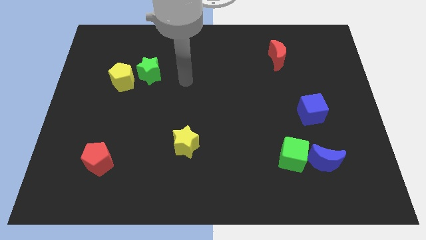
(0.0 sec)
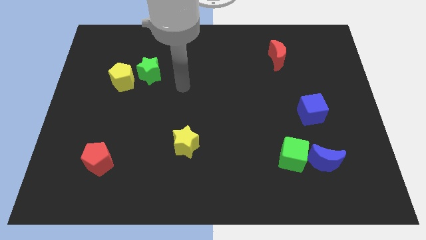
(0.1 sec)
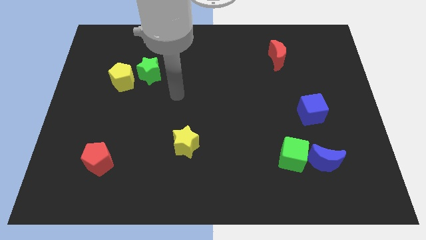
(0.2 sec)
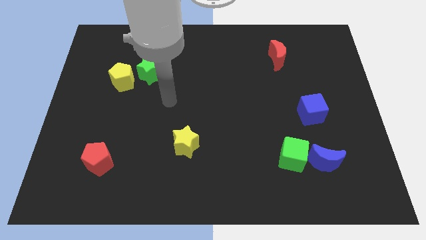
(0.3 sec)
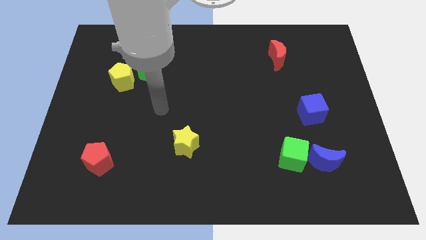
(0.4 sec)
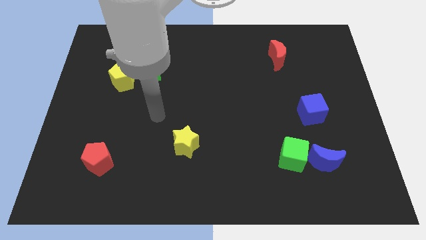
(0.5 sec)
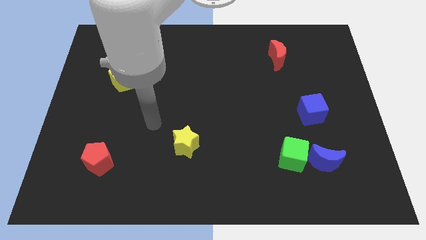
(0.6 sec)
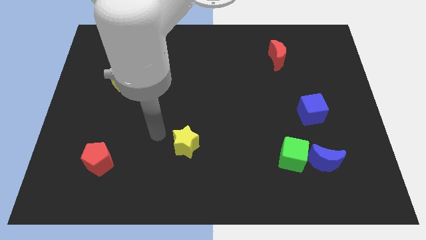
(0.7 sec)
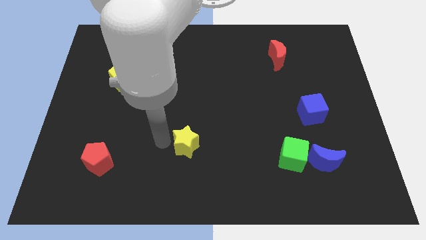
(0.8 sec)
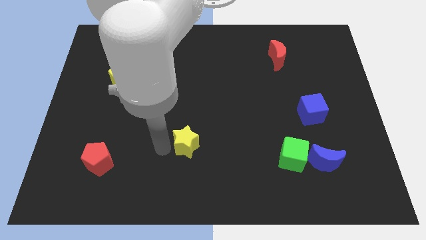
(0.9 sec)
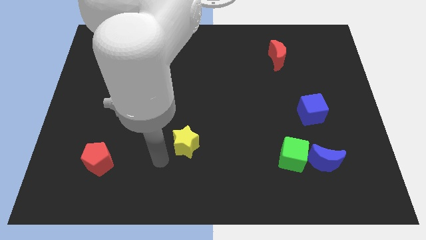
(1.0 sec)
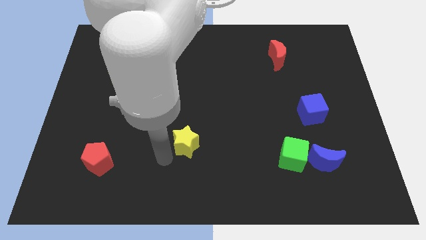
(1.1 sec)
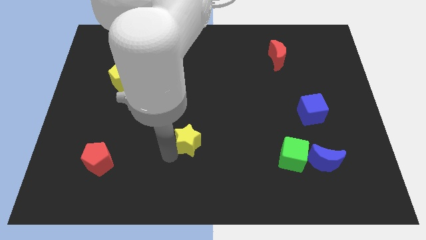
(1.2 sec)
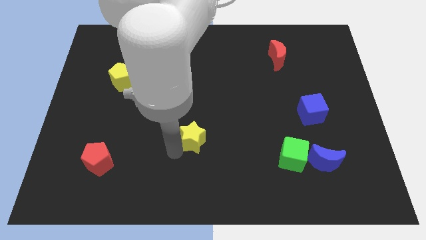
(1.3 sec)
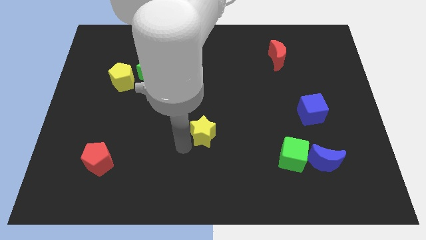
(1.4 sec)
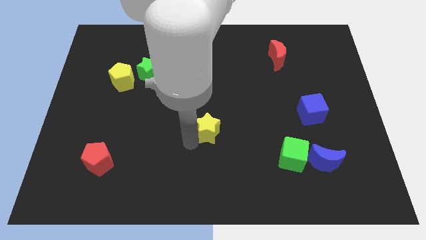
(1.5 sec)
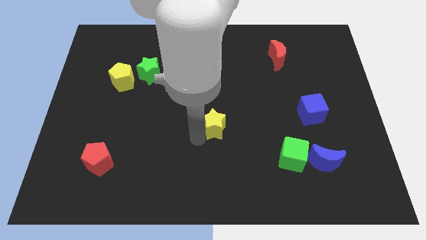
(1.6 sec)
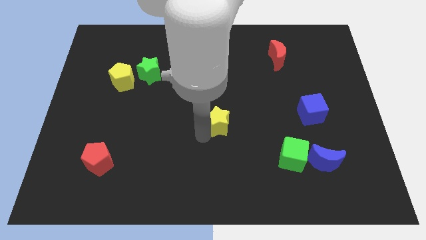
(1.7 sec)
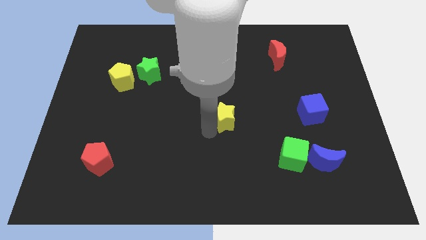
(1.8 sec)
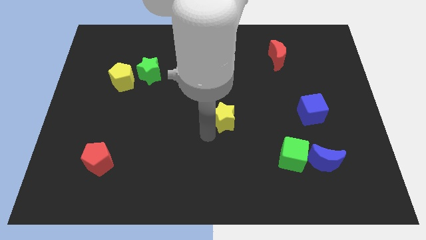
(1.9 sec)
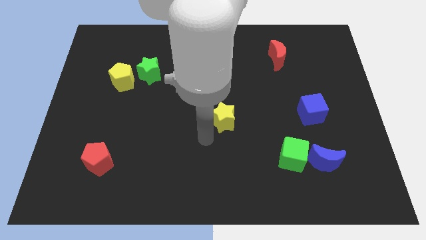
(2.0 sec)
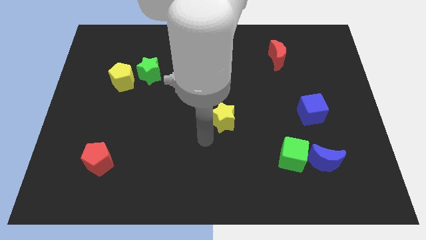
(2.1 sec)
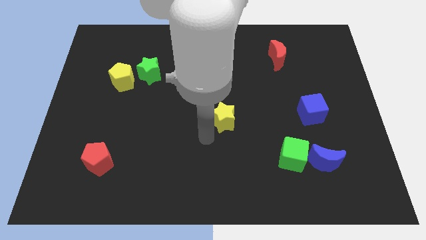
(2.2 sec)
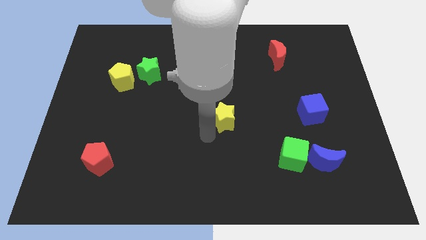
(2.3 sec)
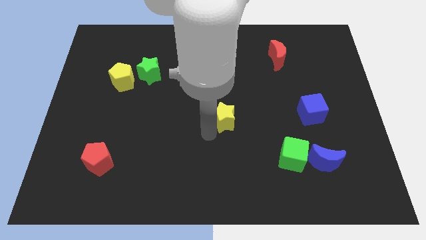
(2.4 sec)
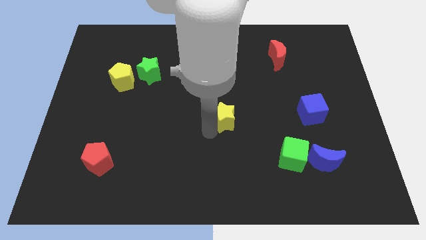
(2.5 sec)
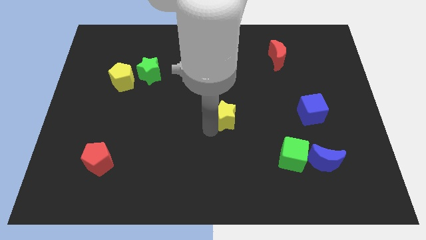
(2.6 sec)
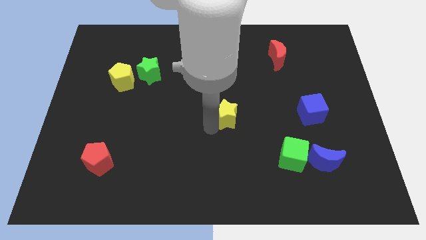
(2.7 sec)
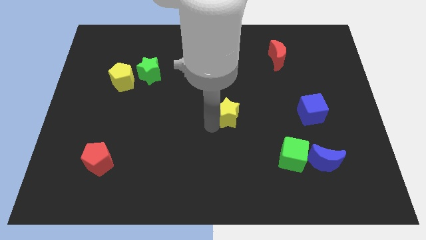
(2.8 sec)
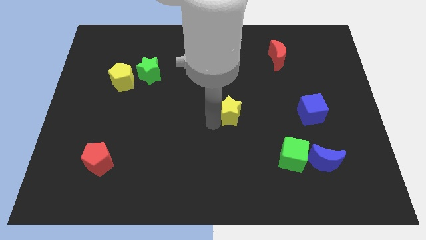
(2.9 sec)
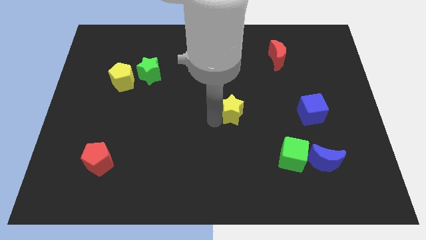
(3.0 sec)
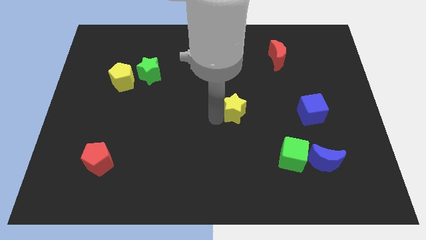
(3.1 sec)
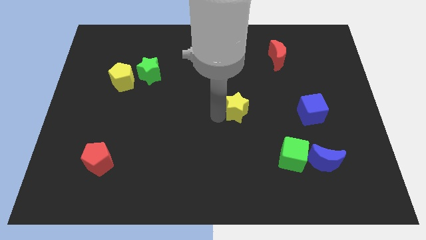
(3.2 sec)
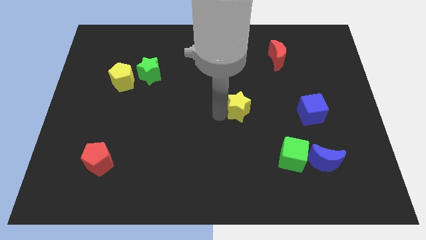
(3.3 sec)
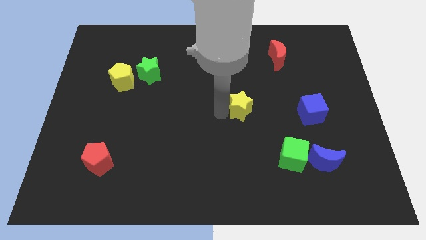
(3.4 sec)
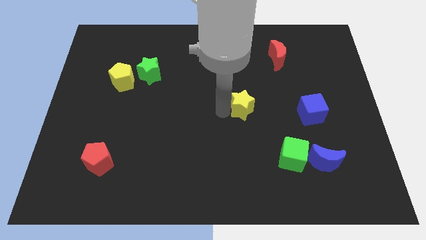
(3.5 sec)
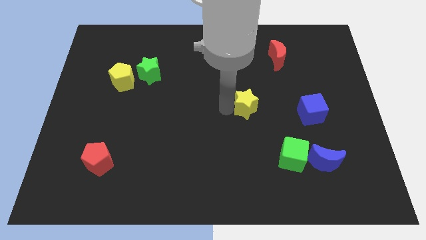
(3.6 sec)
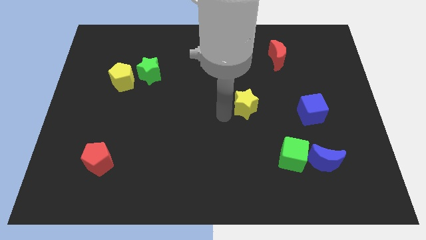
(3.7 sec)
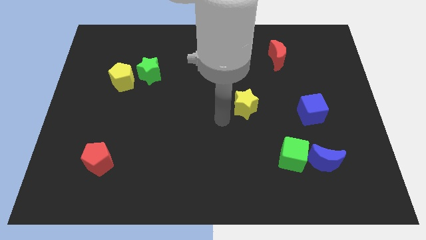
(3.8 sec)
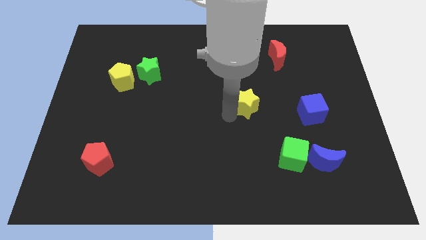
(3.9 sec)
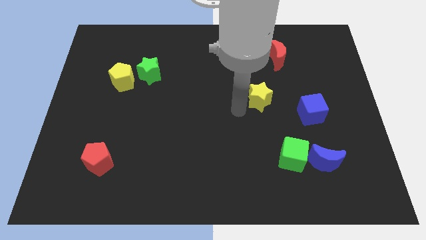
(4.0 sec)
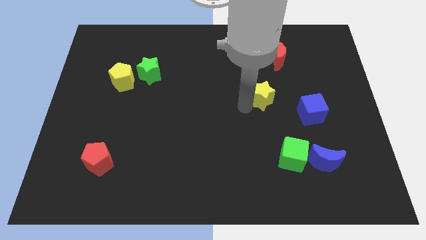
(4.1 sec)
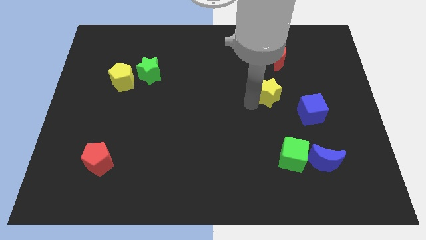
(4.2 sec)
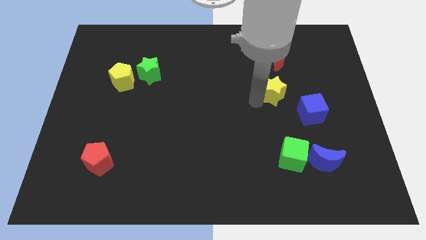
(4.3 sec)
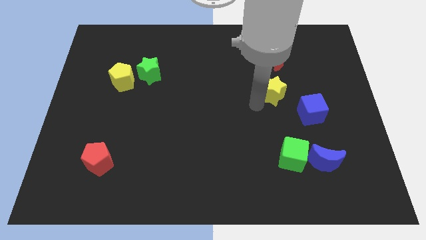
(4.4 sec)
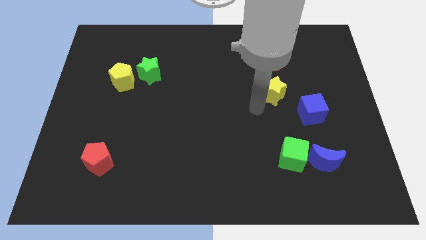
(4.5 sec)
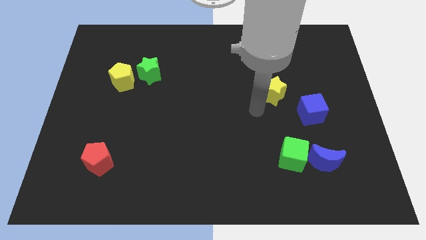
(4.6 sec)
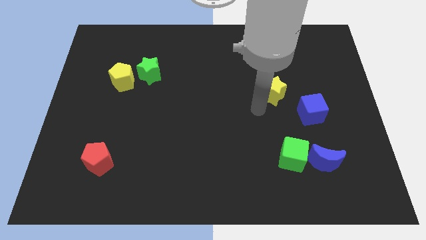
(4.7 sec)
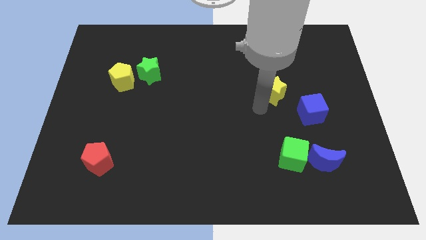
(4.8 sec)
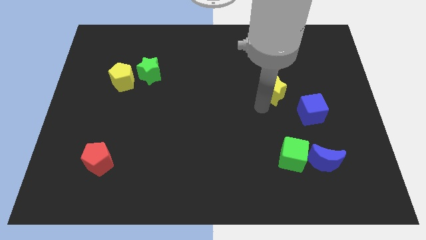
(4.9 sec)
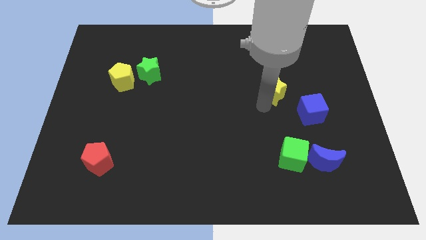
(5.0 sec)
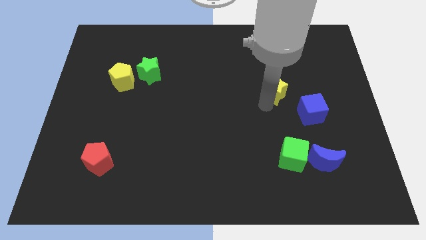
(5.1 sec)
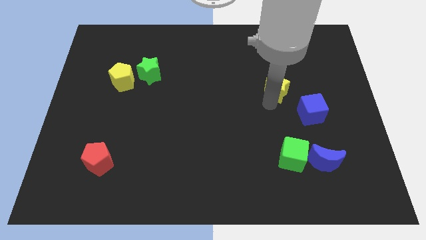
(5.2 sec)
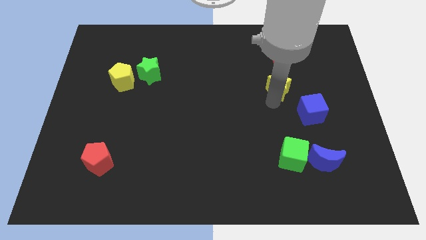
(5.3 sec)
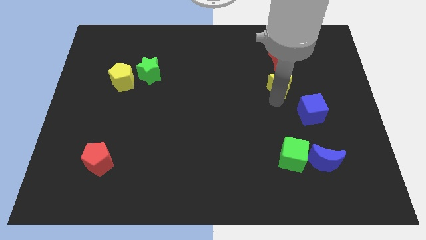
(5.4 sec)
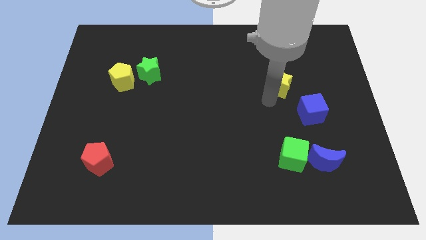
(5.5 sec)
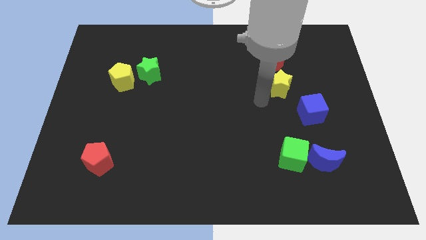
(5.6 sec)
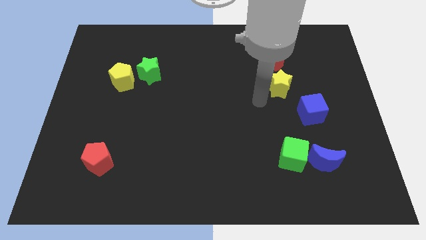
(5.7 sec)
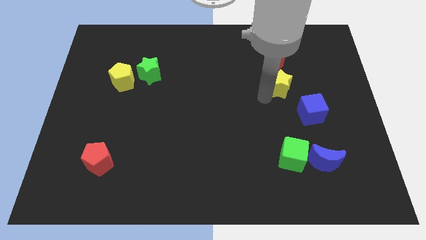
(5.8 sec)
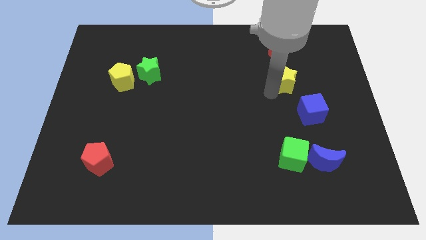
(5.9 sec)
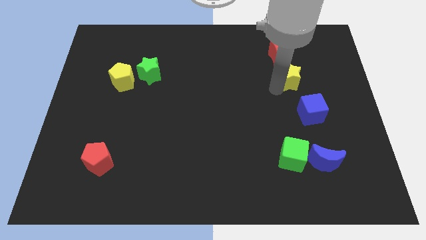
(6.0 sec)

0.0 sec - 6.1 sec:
move the yellow star to the bottom right side of the red moon

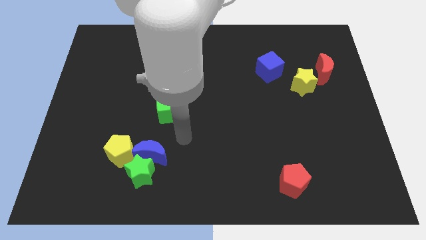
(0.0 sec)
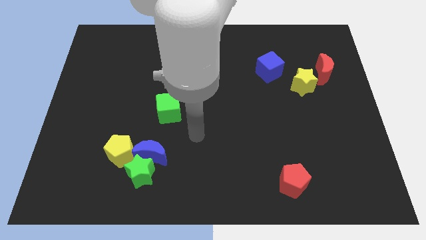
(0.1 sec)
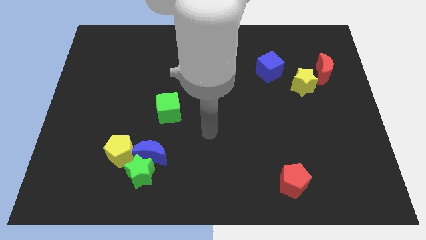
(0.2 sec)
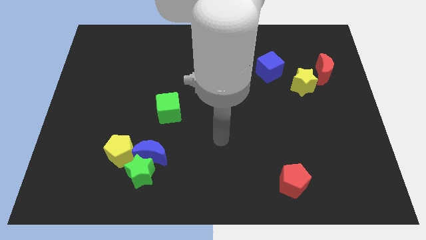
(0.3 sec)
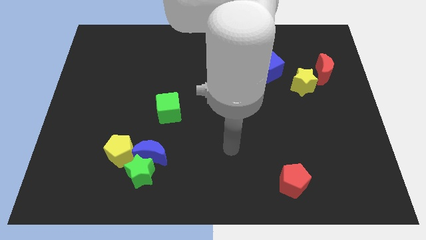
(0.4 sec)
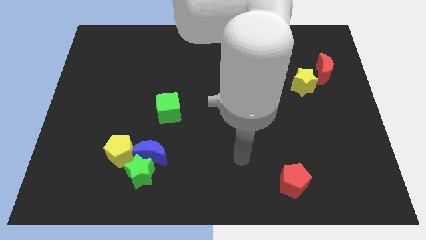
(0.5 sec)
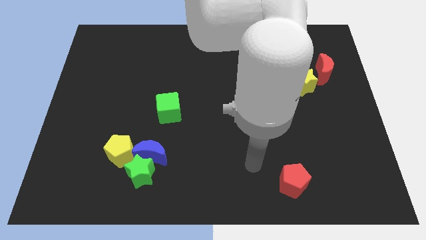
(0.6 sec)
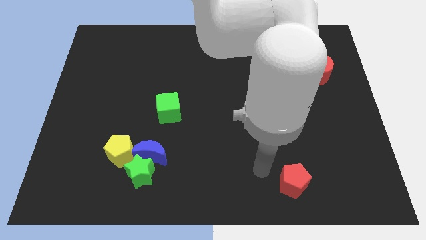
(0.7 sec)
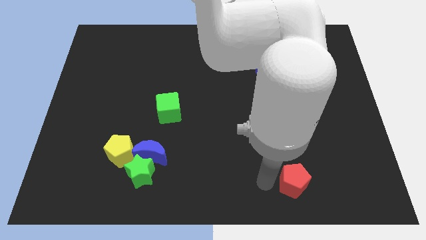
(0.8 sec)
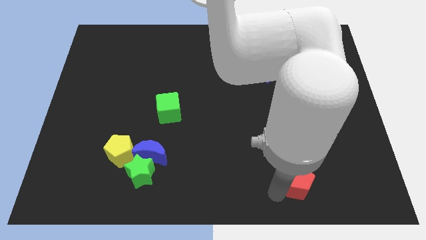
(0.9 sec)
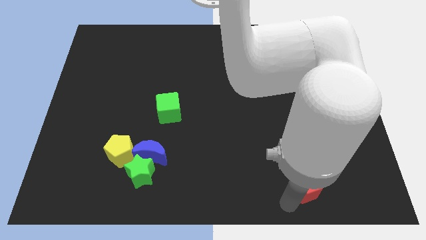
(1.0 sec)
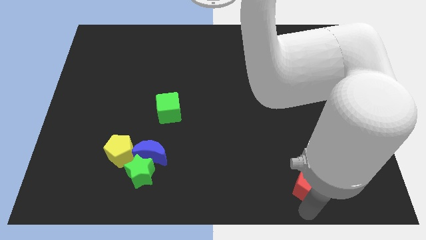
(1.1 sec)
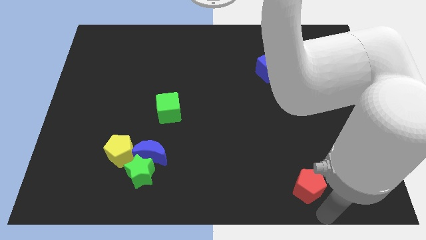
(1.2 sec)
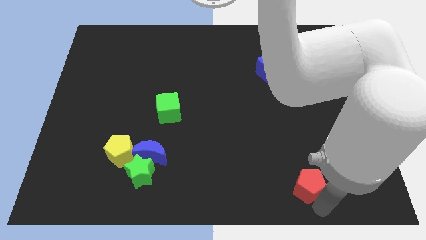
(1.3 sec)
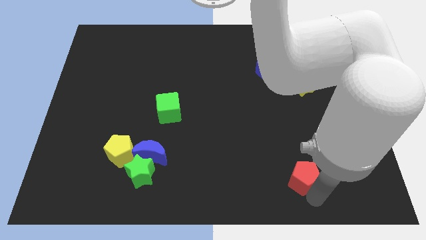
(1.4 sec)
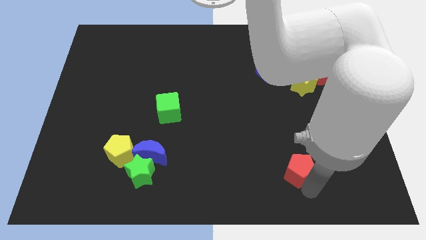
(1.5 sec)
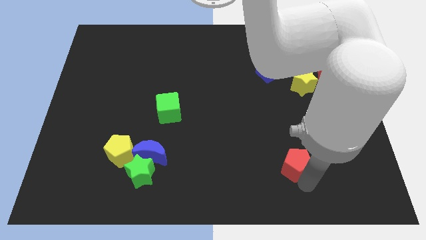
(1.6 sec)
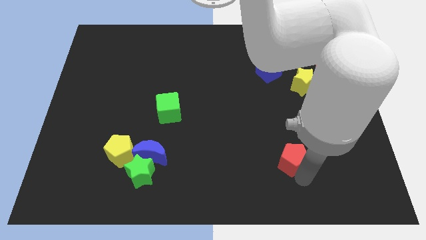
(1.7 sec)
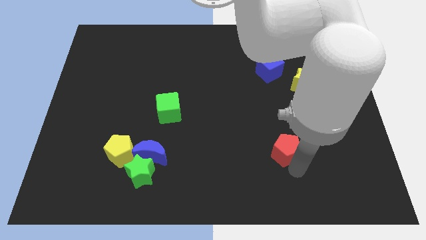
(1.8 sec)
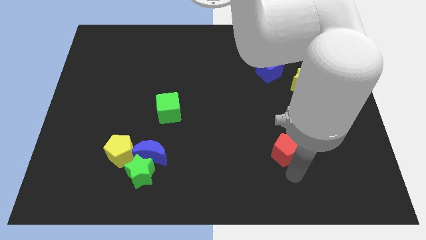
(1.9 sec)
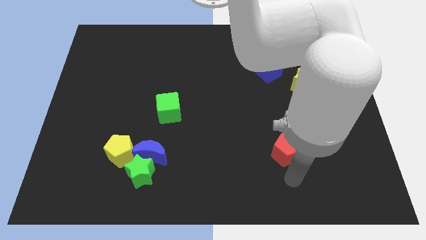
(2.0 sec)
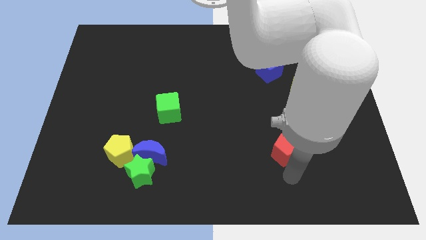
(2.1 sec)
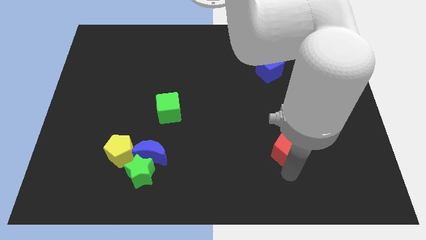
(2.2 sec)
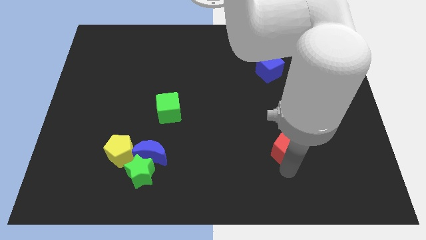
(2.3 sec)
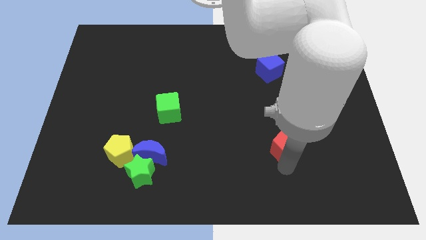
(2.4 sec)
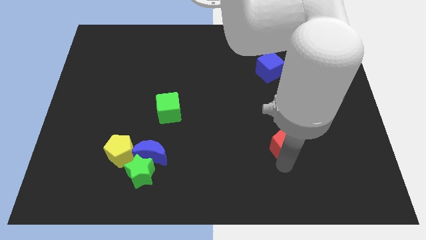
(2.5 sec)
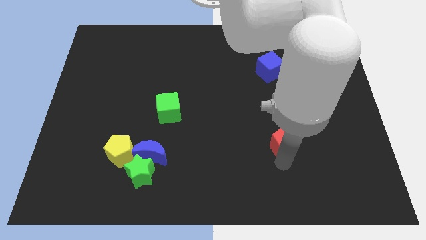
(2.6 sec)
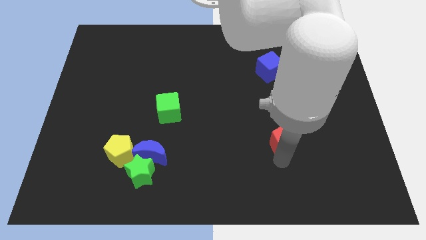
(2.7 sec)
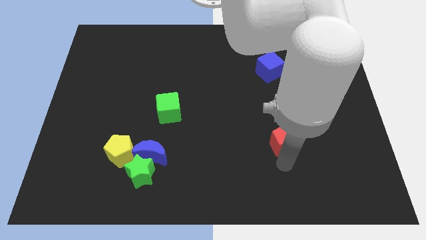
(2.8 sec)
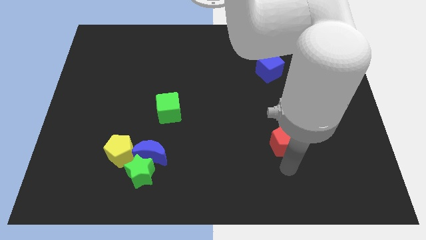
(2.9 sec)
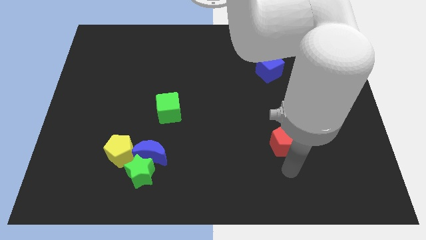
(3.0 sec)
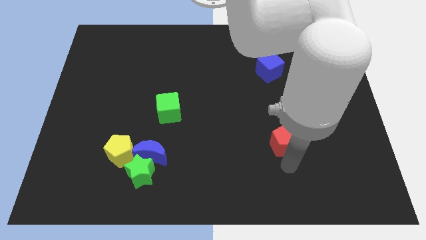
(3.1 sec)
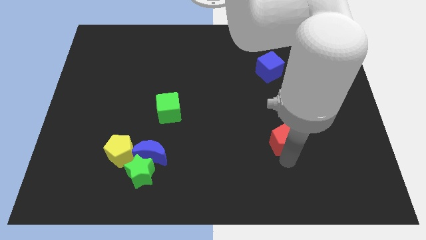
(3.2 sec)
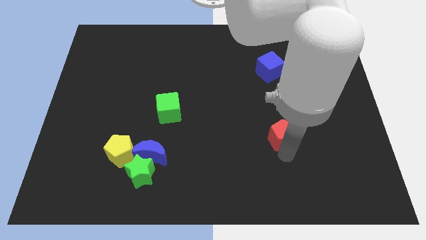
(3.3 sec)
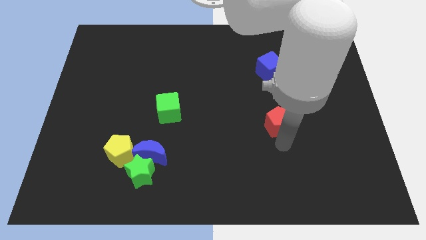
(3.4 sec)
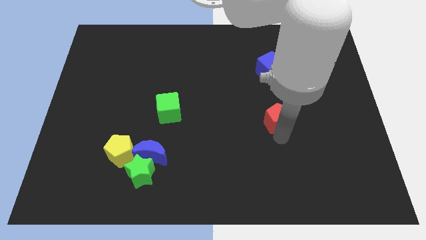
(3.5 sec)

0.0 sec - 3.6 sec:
slide the red pentagon below the blue cube
